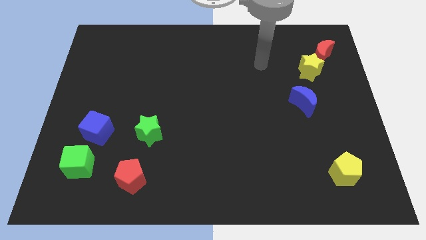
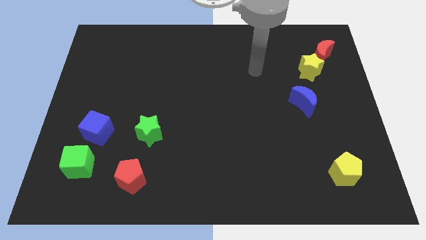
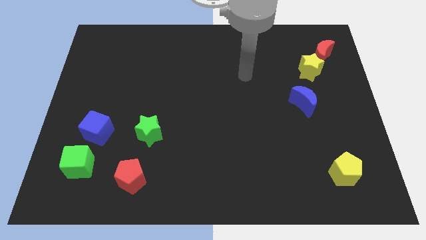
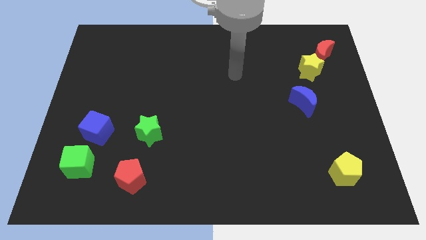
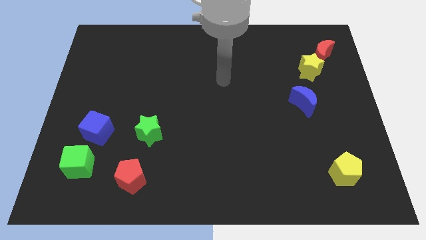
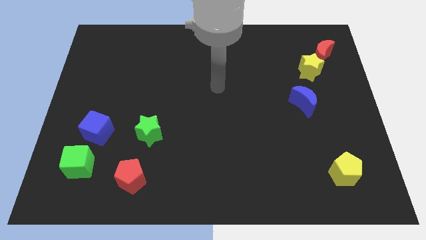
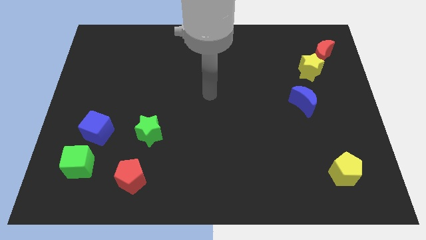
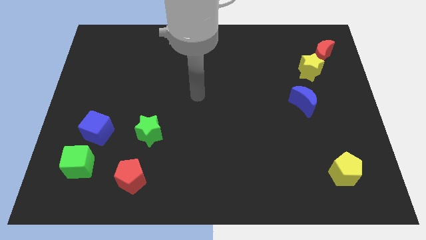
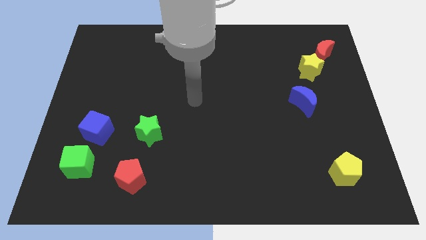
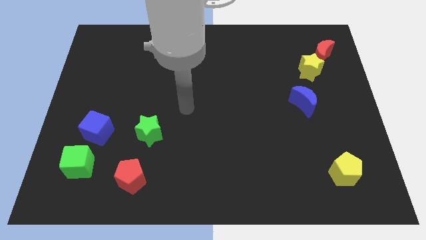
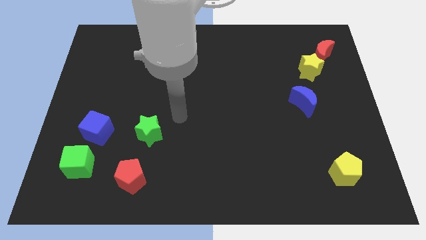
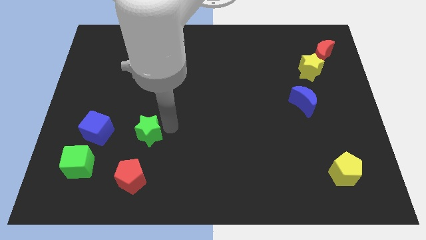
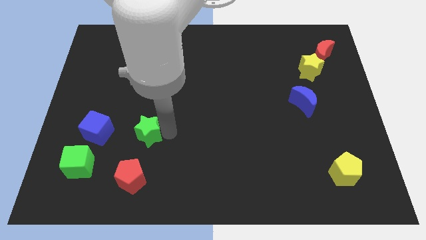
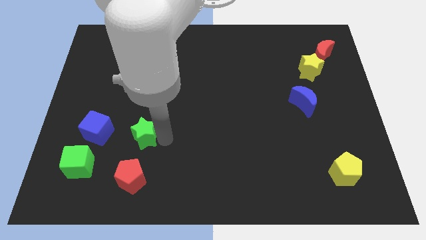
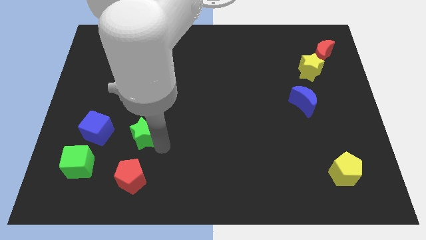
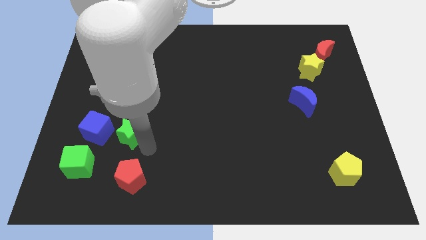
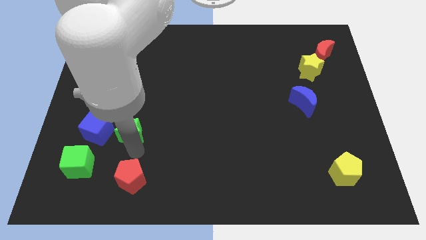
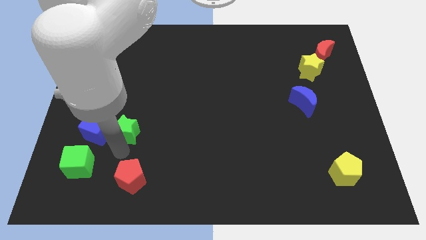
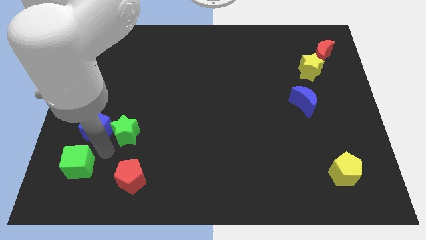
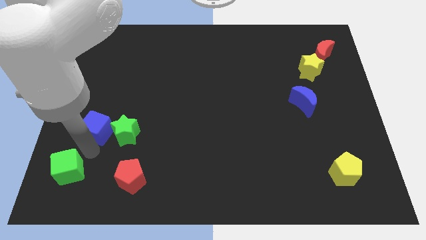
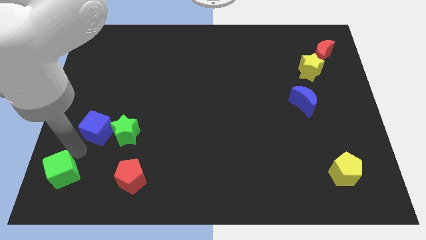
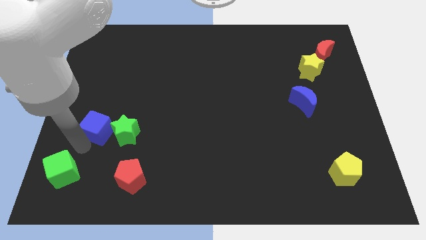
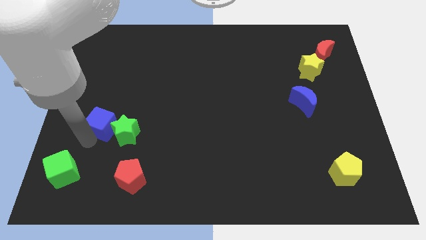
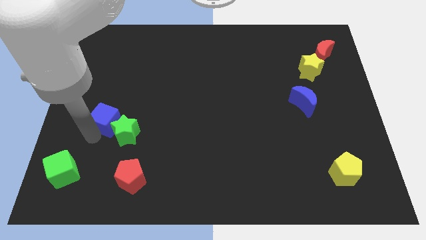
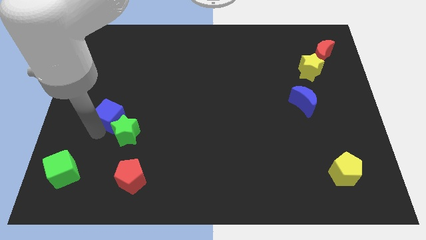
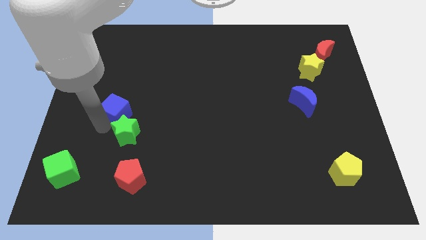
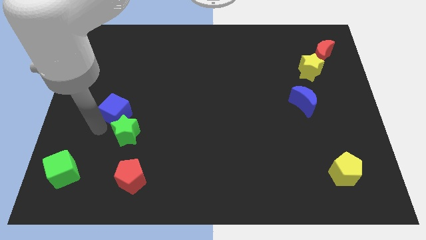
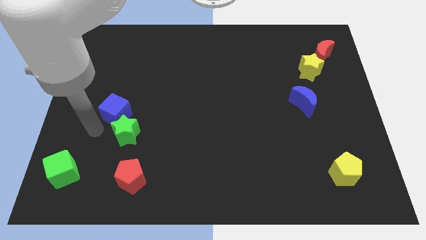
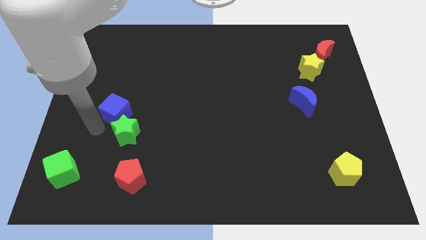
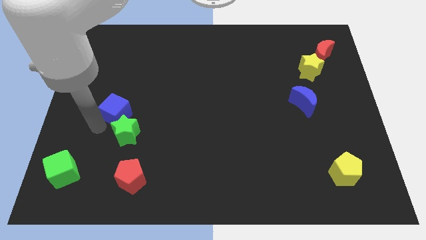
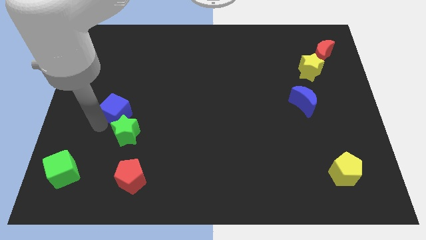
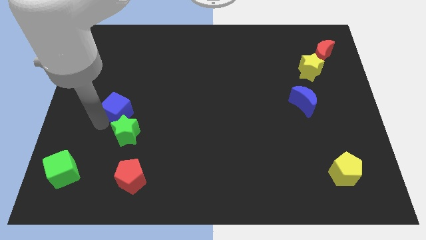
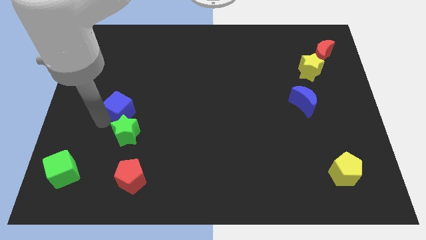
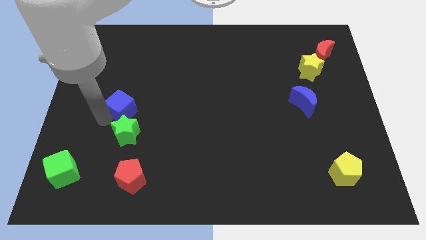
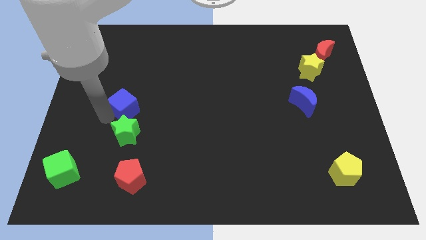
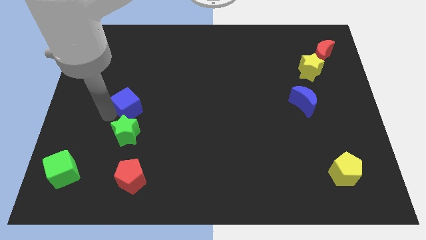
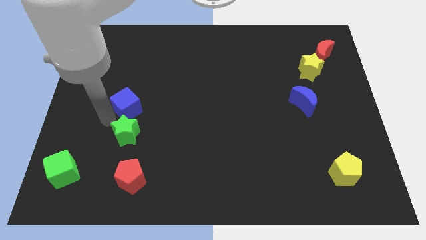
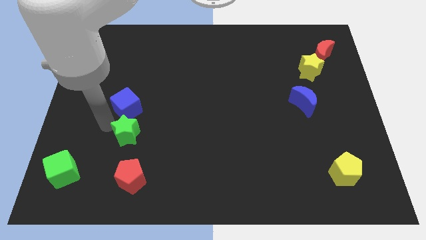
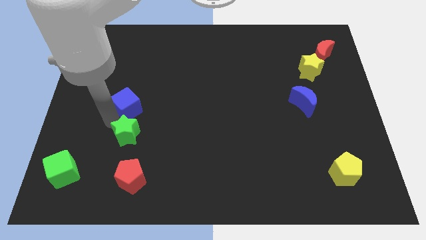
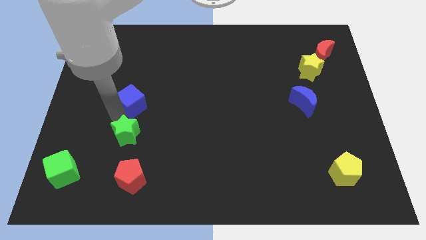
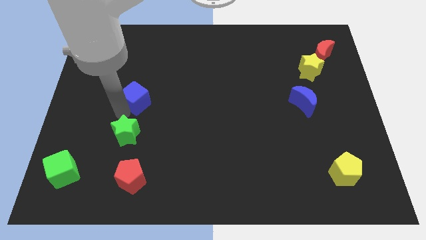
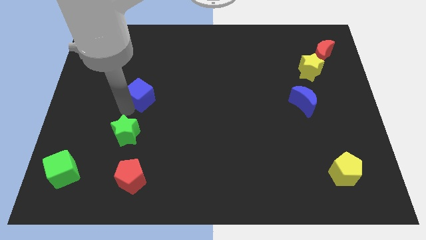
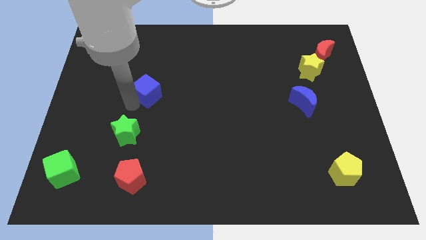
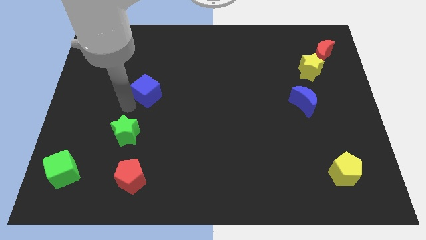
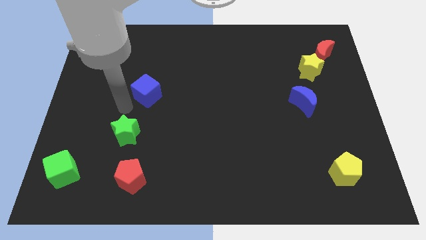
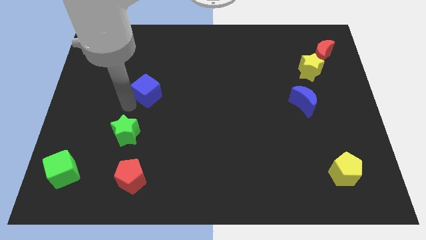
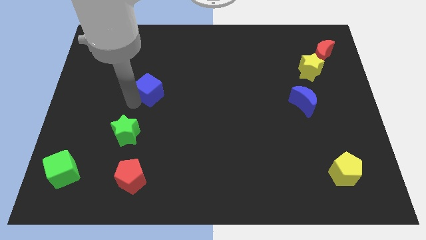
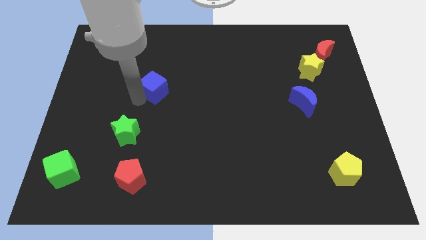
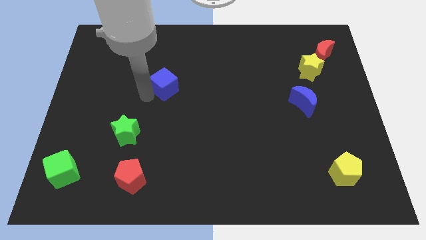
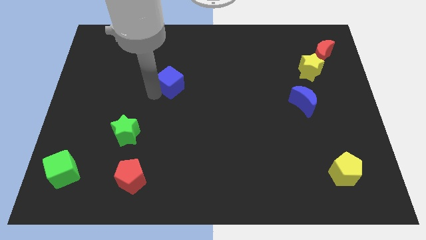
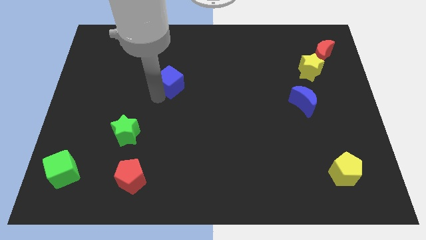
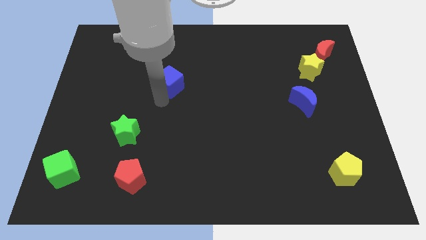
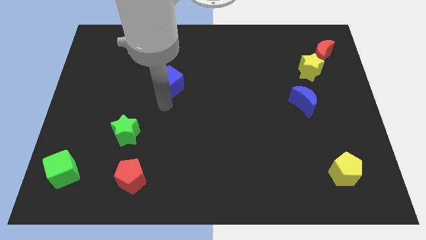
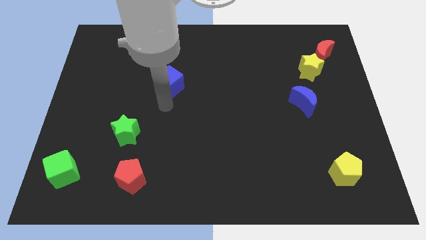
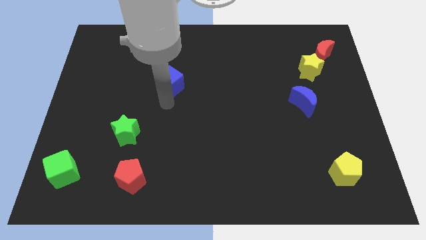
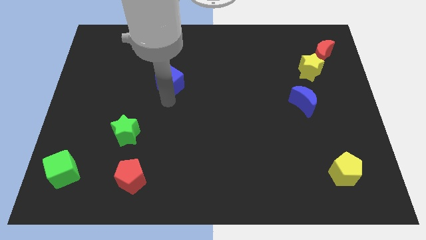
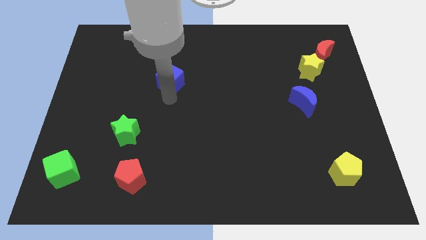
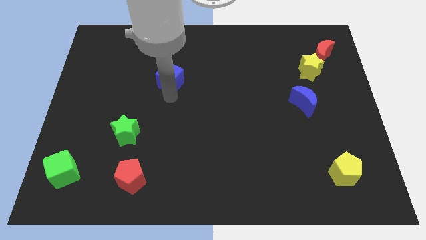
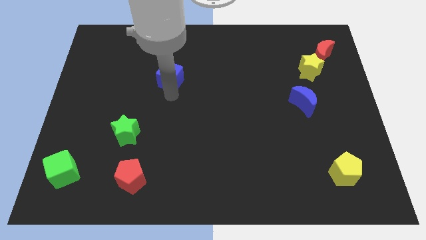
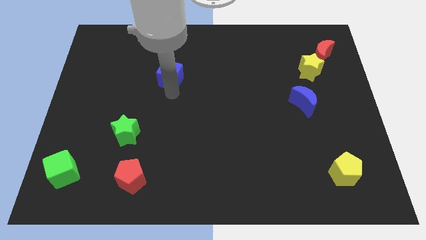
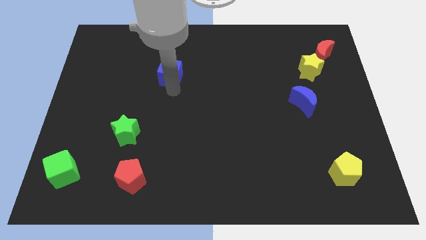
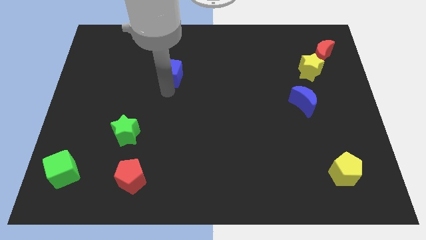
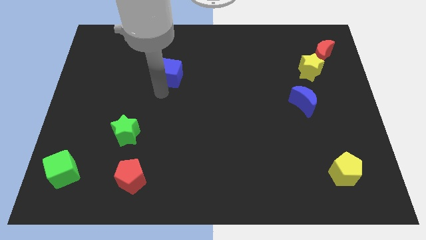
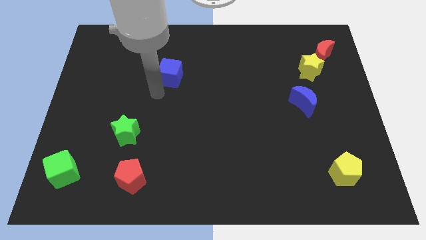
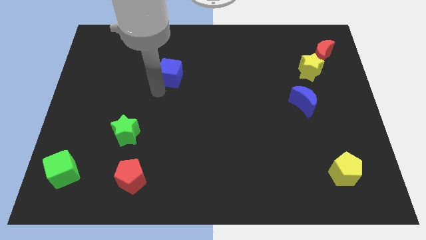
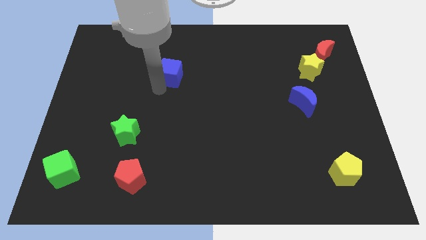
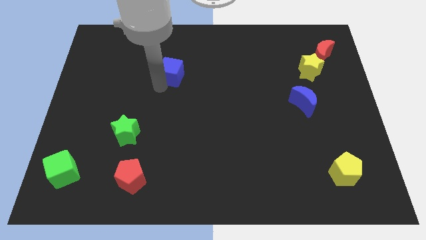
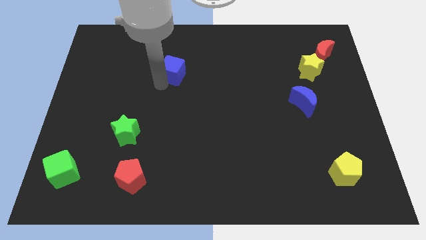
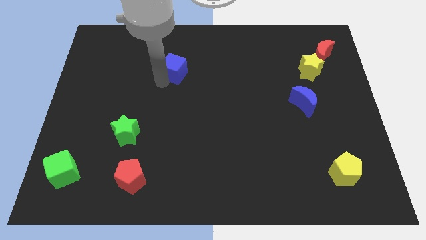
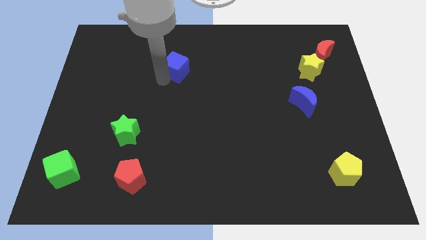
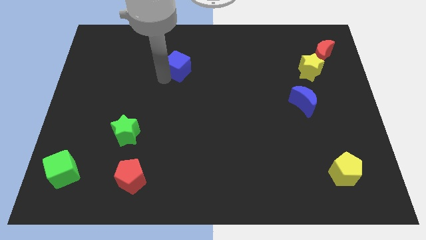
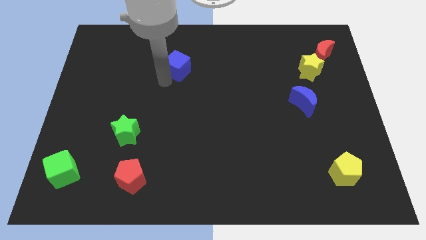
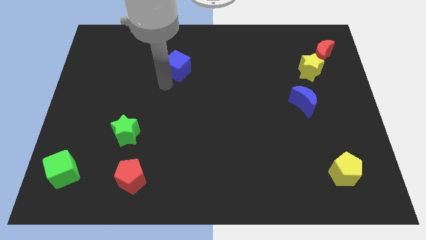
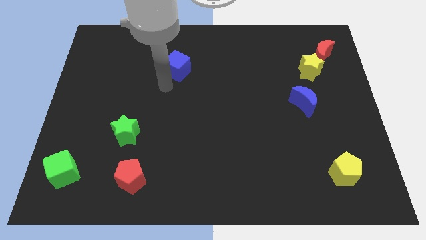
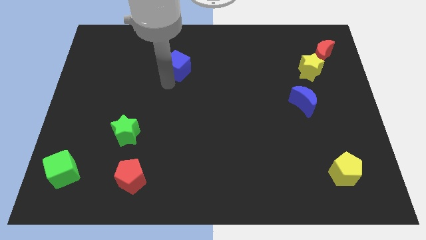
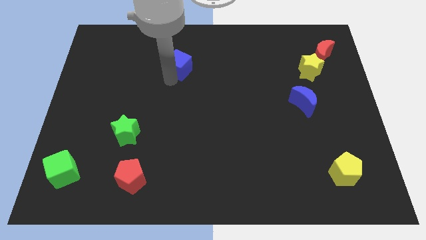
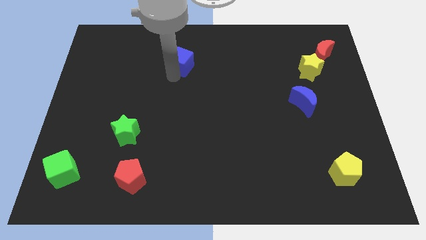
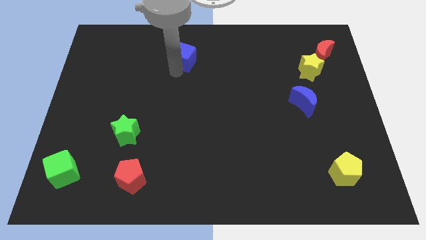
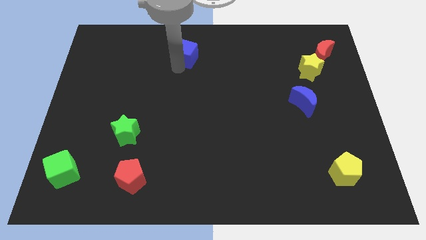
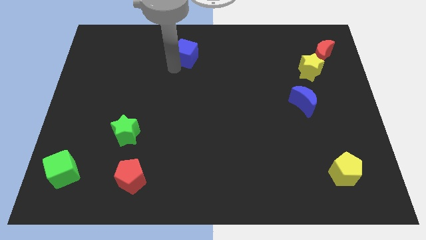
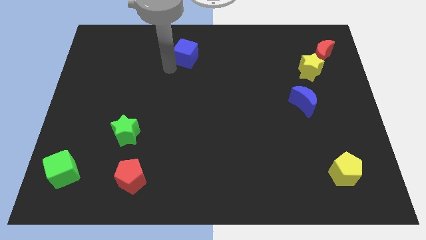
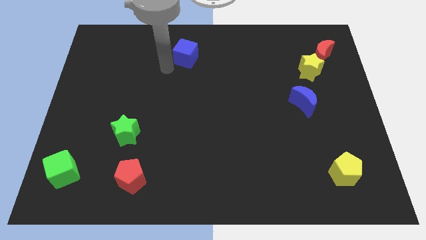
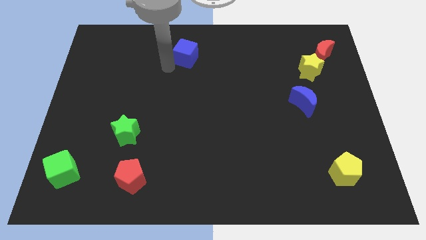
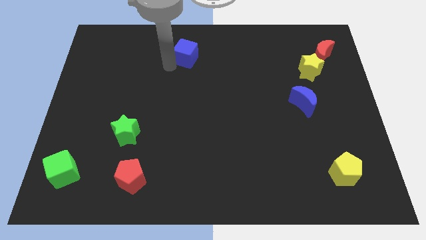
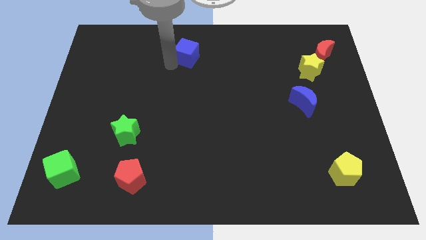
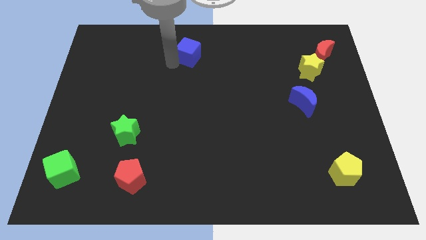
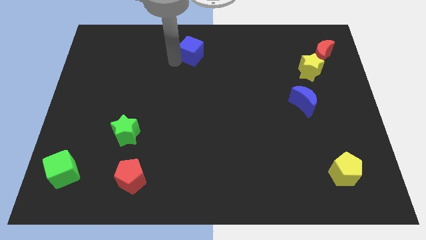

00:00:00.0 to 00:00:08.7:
slide the blue cube to the top side
